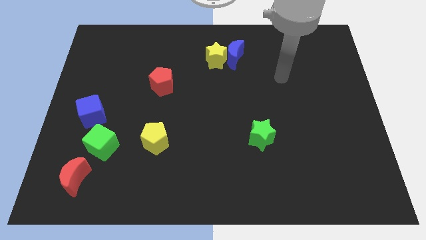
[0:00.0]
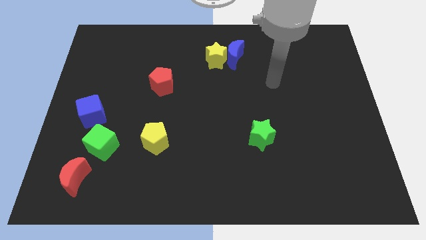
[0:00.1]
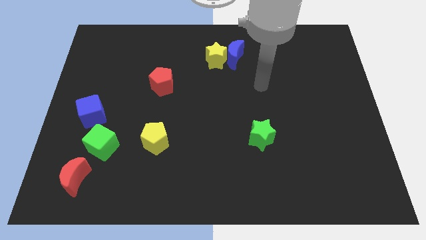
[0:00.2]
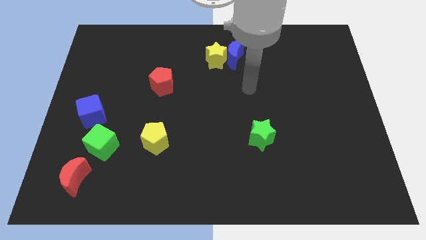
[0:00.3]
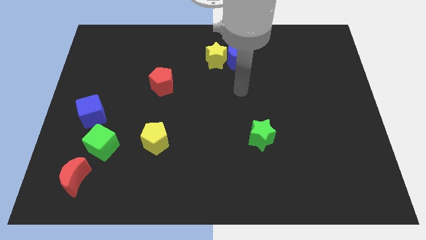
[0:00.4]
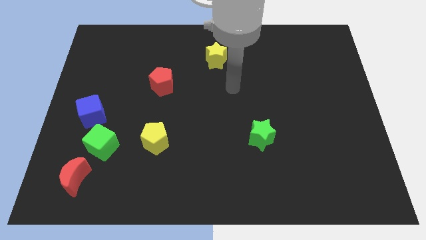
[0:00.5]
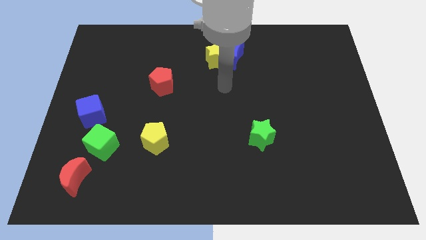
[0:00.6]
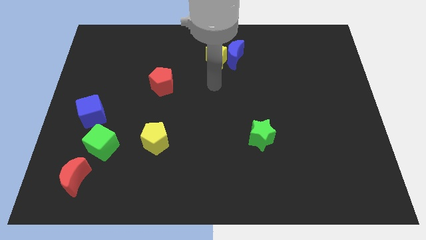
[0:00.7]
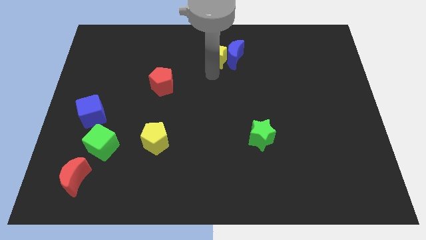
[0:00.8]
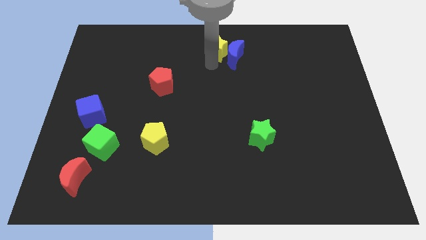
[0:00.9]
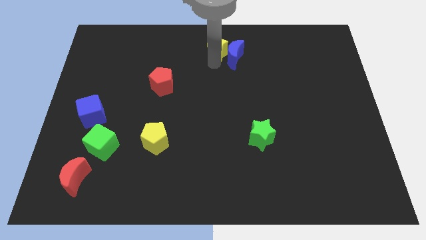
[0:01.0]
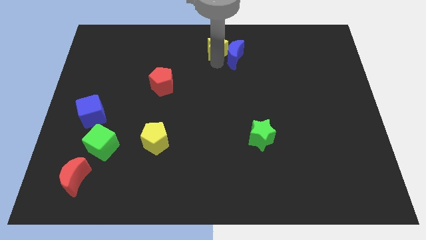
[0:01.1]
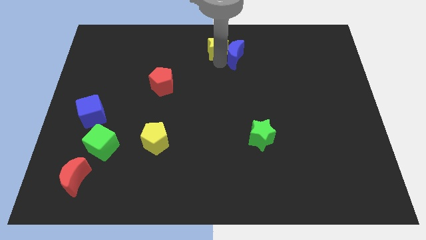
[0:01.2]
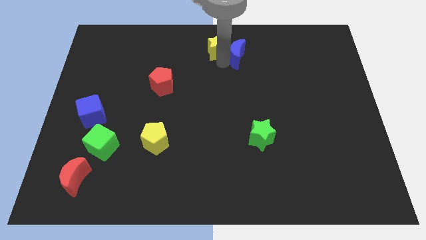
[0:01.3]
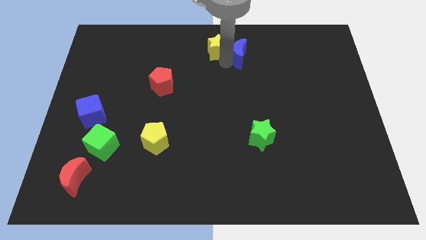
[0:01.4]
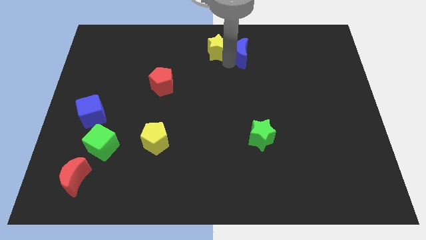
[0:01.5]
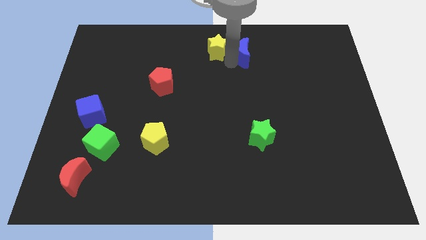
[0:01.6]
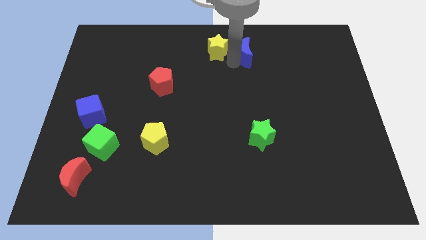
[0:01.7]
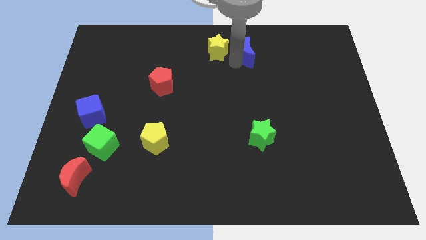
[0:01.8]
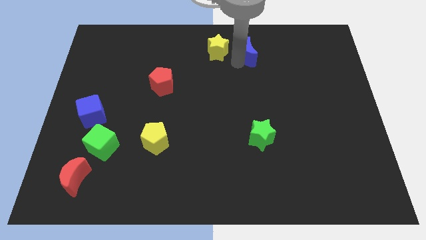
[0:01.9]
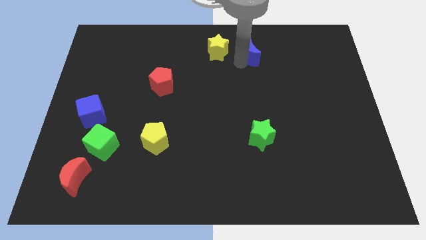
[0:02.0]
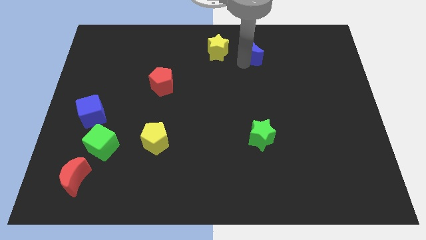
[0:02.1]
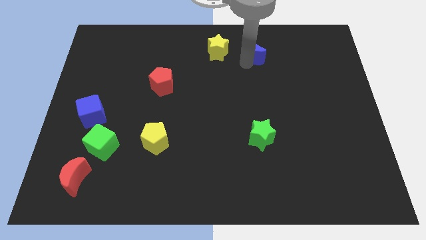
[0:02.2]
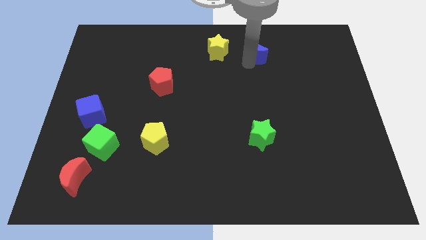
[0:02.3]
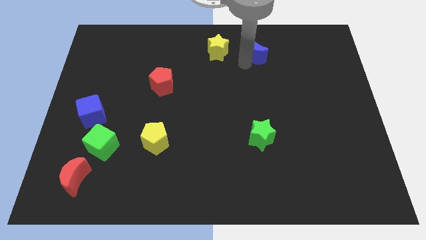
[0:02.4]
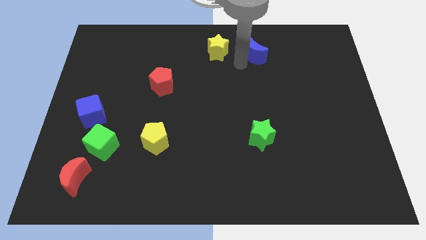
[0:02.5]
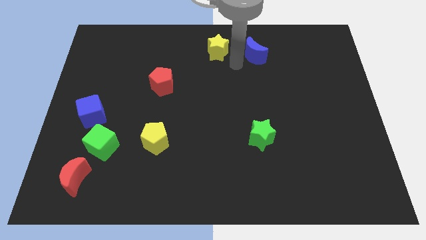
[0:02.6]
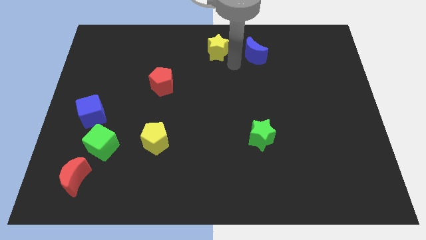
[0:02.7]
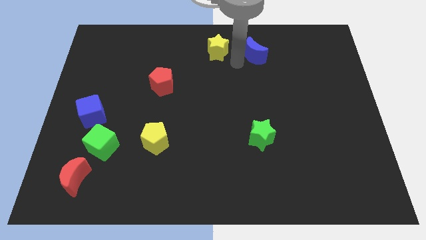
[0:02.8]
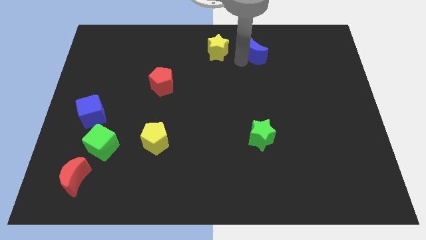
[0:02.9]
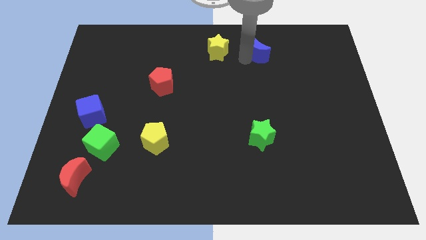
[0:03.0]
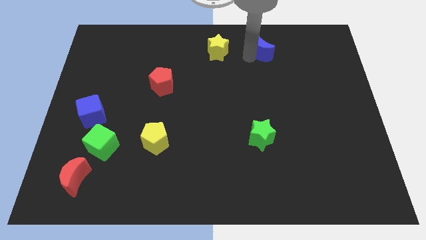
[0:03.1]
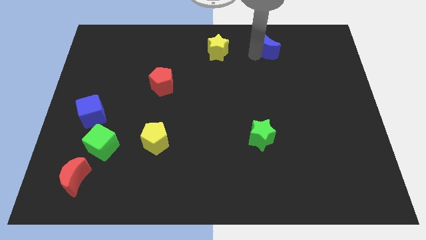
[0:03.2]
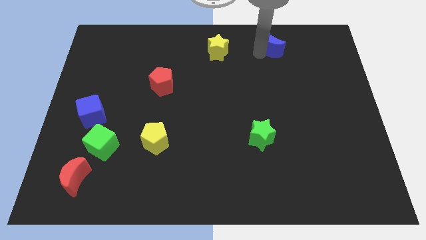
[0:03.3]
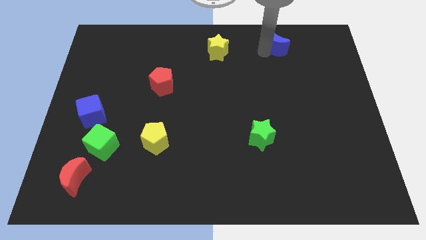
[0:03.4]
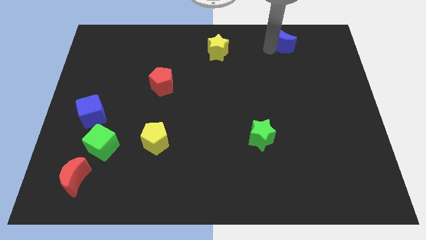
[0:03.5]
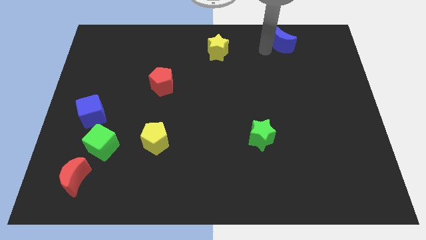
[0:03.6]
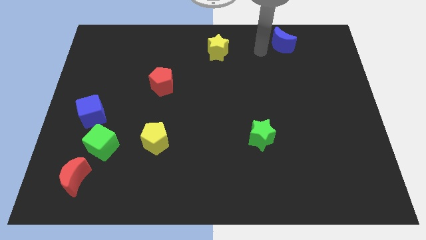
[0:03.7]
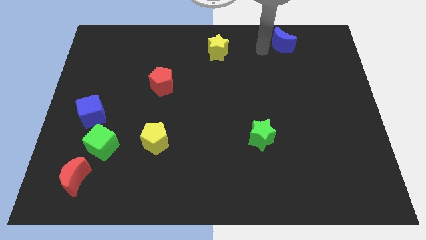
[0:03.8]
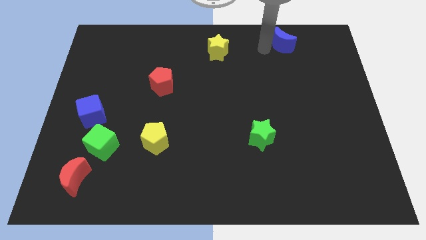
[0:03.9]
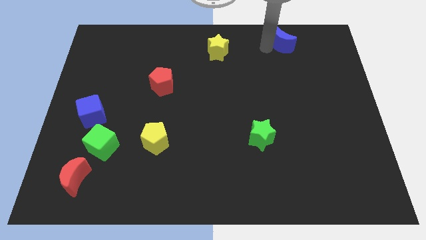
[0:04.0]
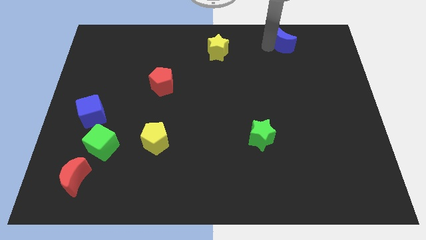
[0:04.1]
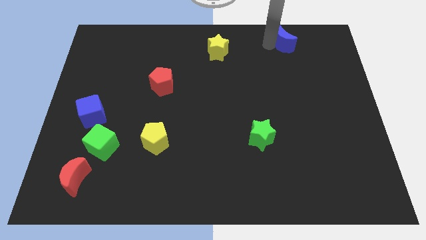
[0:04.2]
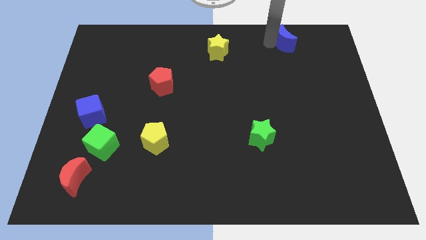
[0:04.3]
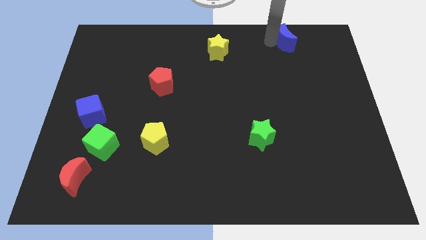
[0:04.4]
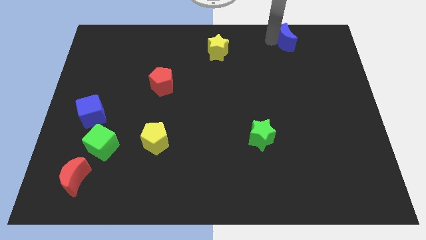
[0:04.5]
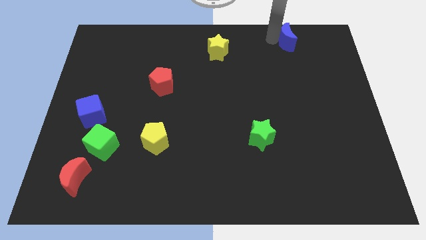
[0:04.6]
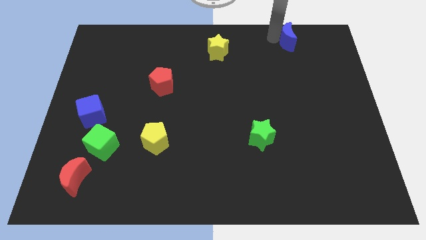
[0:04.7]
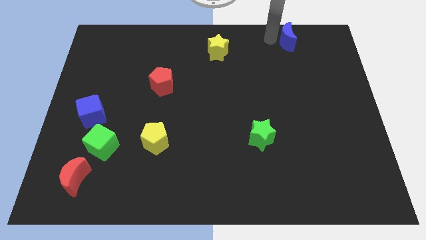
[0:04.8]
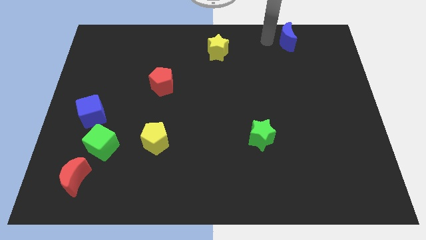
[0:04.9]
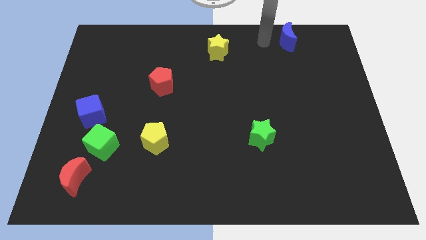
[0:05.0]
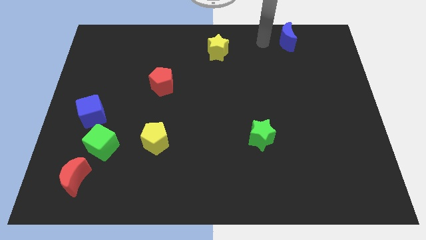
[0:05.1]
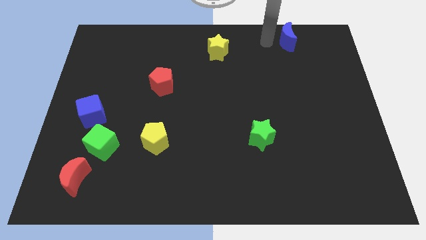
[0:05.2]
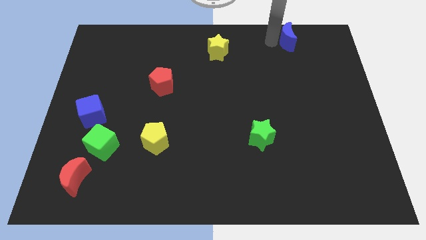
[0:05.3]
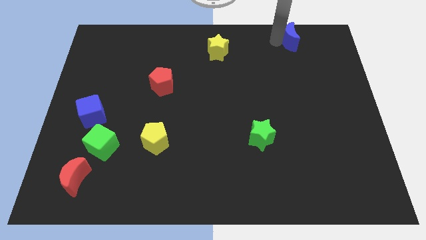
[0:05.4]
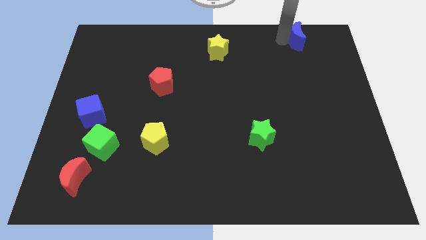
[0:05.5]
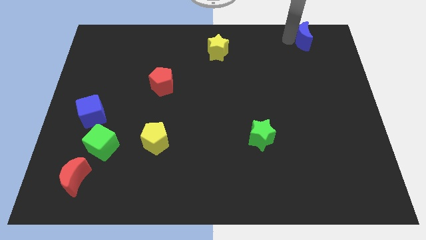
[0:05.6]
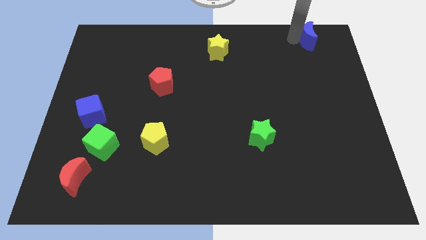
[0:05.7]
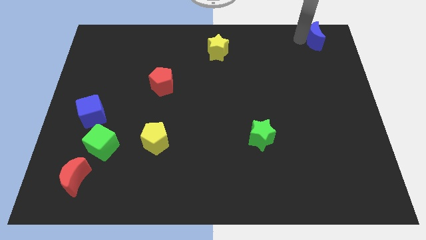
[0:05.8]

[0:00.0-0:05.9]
slide the blue moon to the top right of the board
